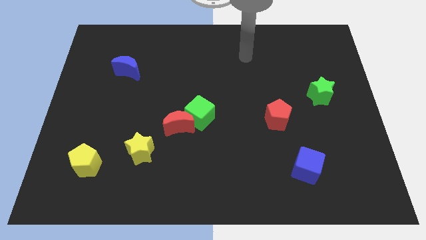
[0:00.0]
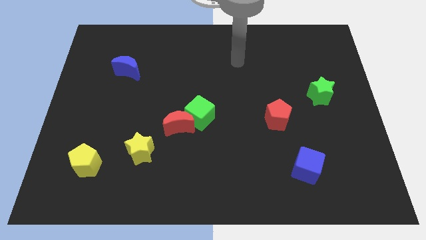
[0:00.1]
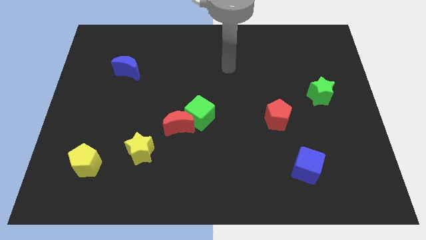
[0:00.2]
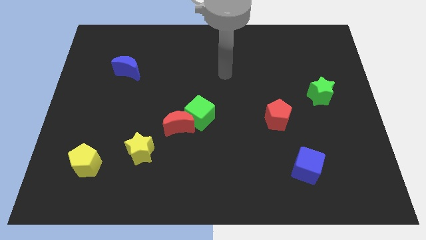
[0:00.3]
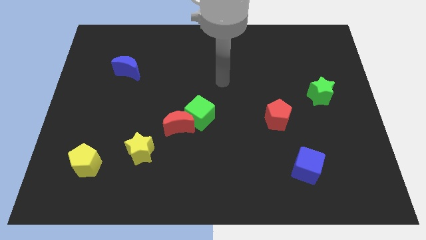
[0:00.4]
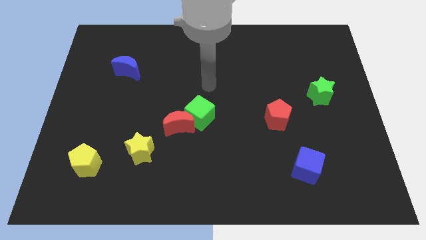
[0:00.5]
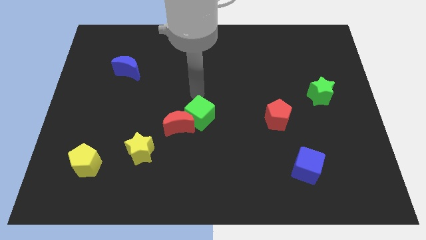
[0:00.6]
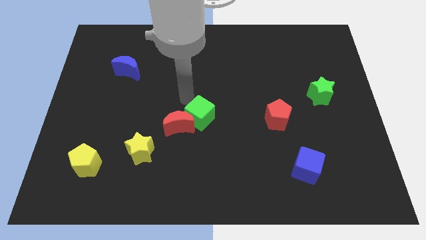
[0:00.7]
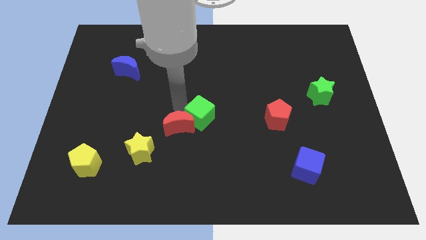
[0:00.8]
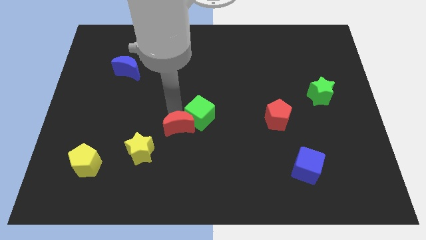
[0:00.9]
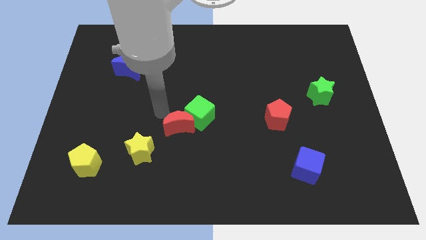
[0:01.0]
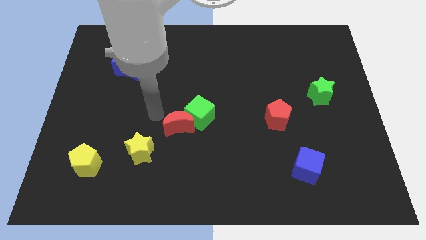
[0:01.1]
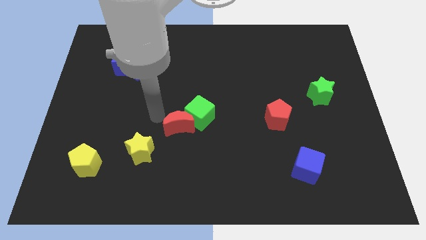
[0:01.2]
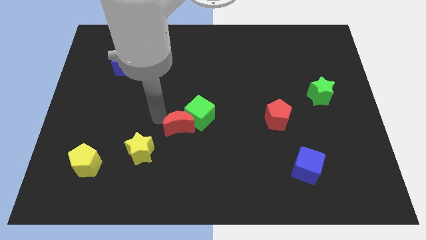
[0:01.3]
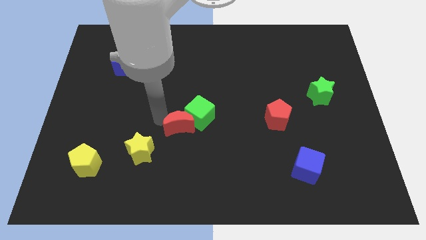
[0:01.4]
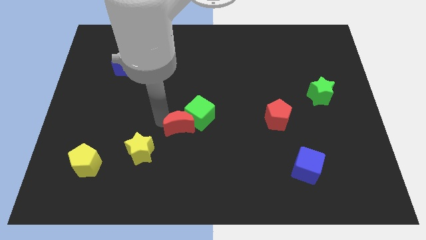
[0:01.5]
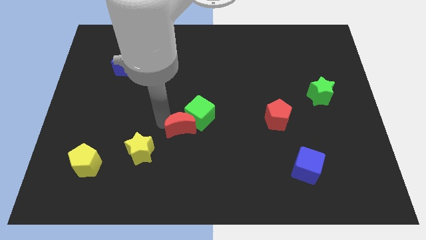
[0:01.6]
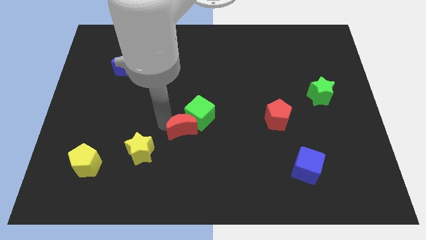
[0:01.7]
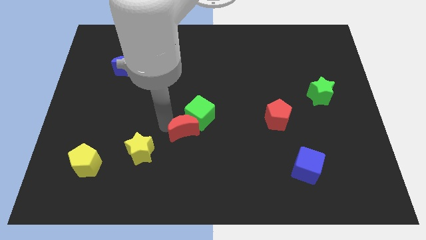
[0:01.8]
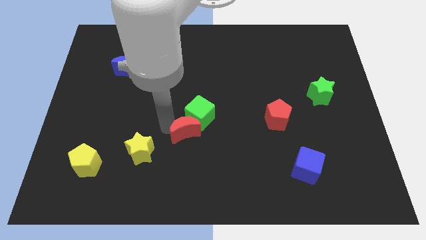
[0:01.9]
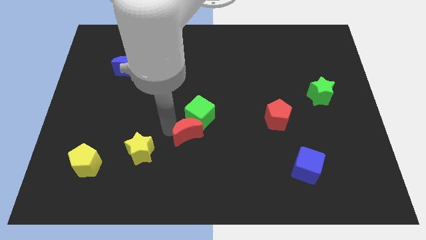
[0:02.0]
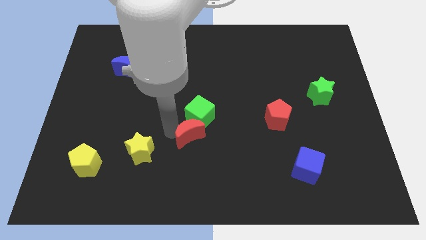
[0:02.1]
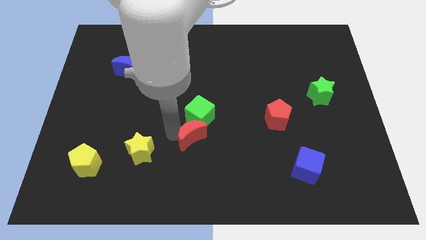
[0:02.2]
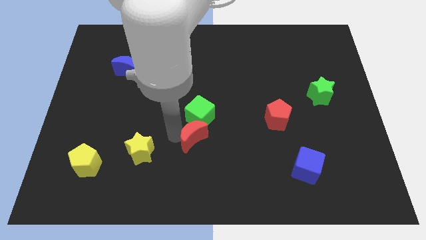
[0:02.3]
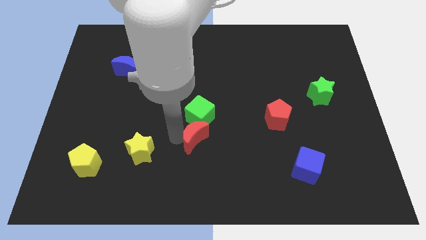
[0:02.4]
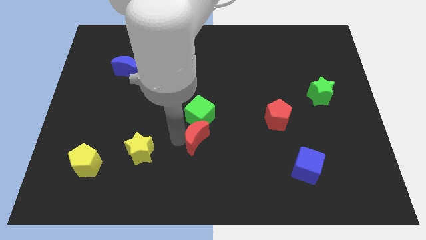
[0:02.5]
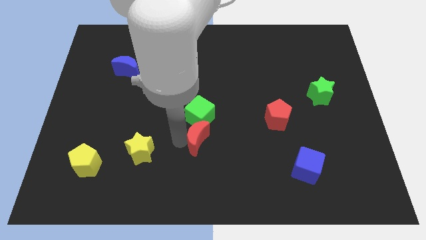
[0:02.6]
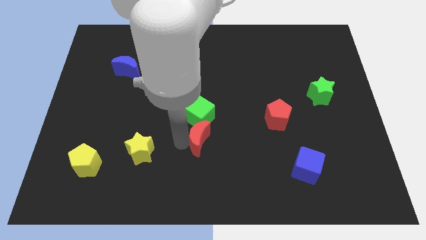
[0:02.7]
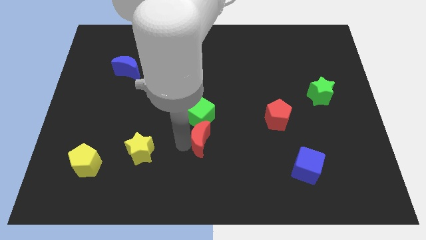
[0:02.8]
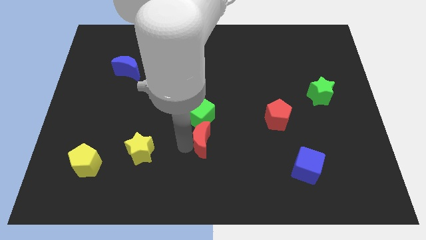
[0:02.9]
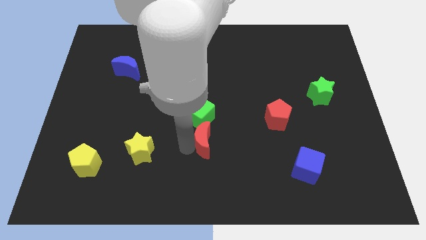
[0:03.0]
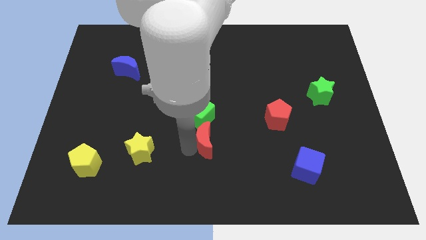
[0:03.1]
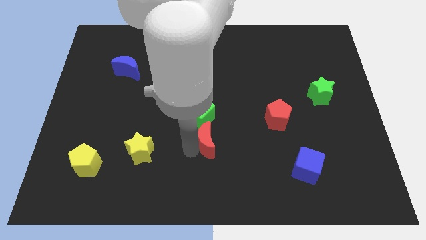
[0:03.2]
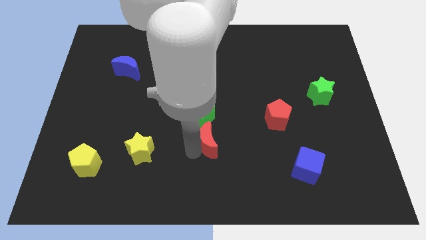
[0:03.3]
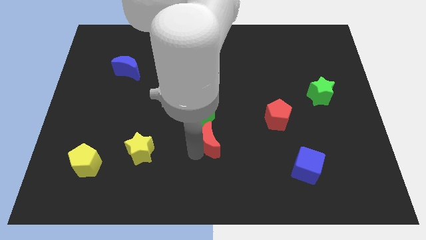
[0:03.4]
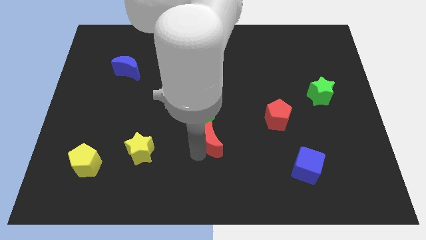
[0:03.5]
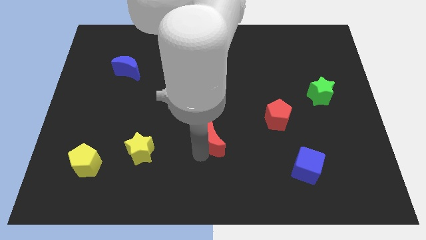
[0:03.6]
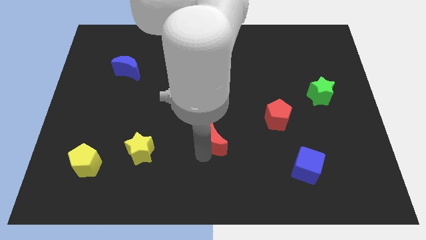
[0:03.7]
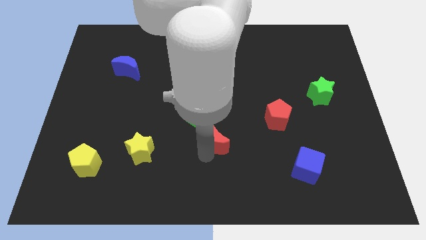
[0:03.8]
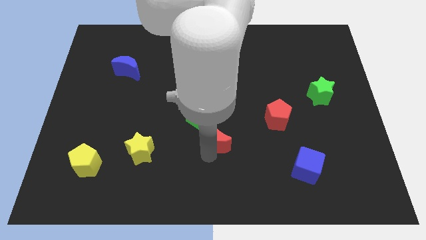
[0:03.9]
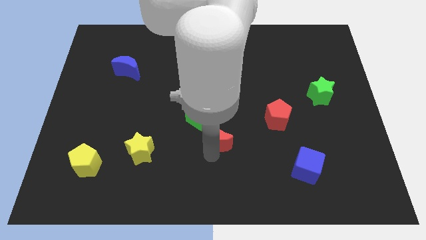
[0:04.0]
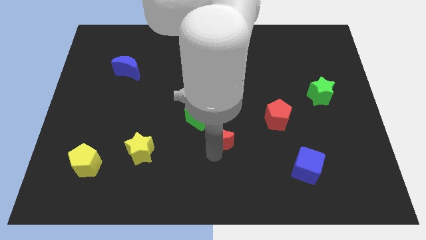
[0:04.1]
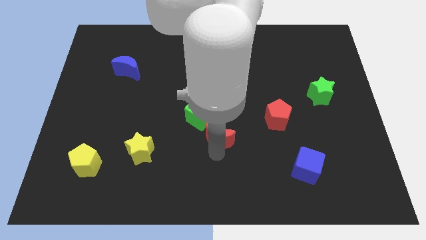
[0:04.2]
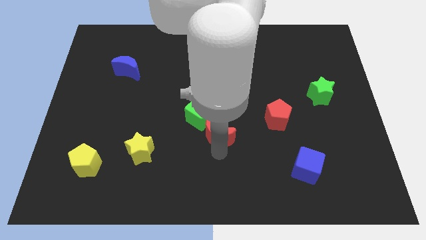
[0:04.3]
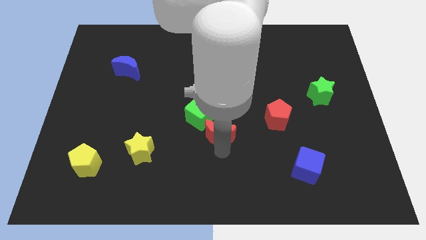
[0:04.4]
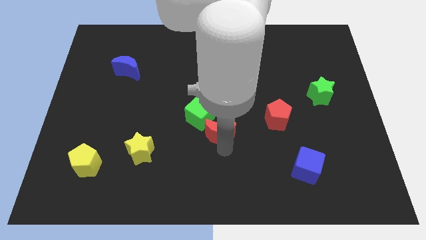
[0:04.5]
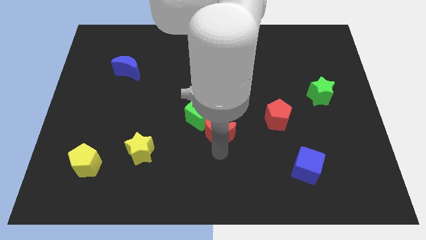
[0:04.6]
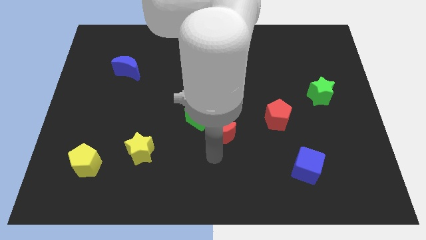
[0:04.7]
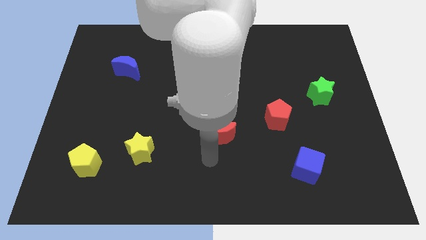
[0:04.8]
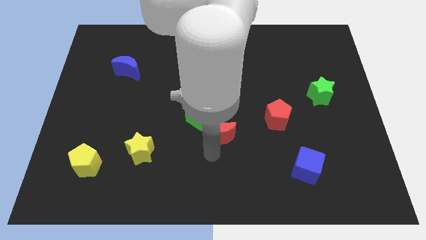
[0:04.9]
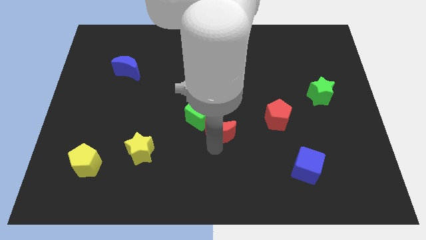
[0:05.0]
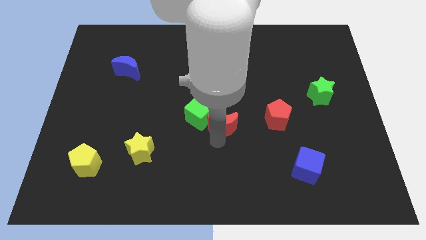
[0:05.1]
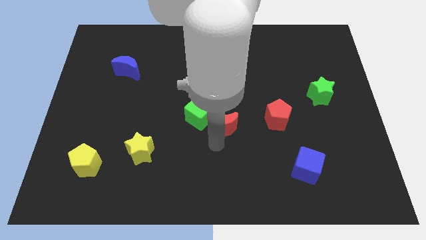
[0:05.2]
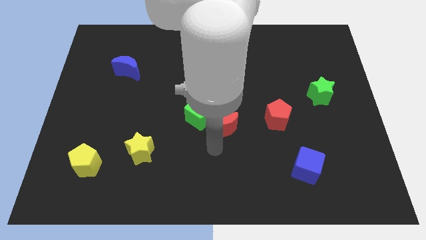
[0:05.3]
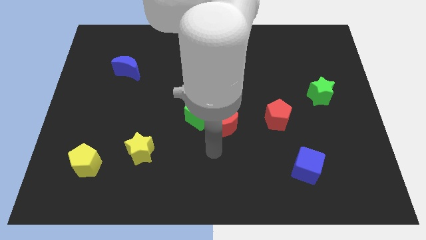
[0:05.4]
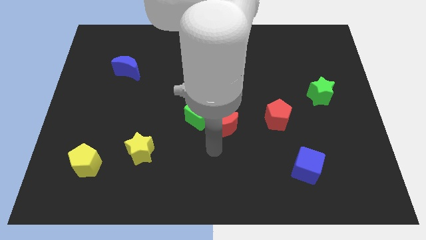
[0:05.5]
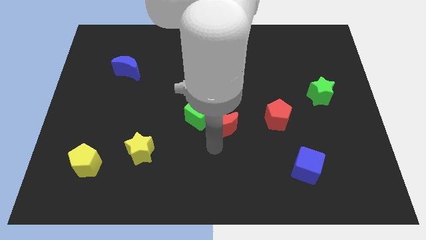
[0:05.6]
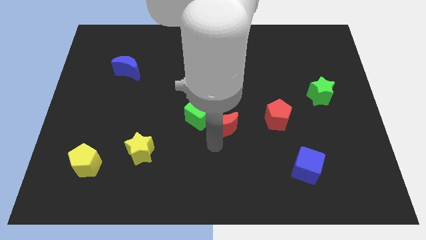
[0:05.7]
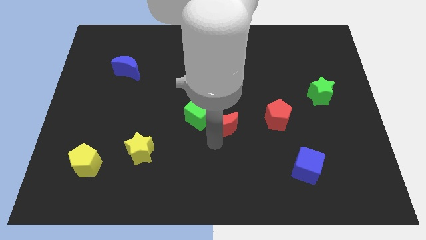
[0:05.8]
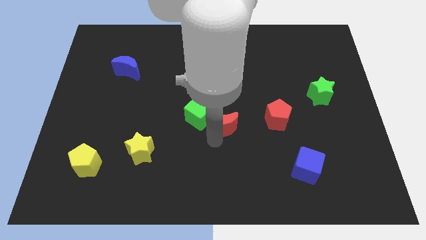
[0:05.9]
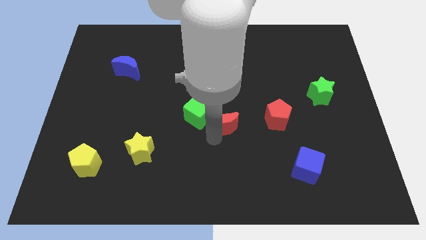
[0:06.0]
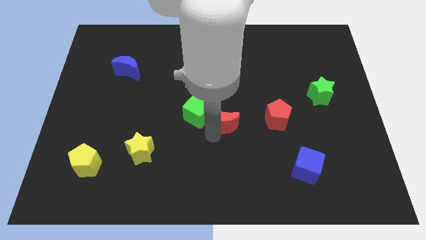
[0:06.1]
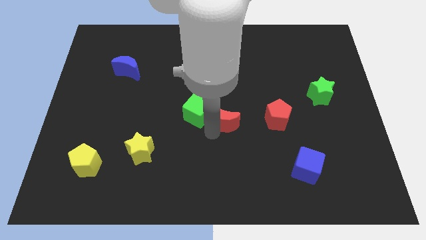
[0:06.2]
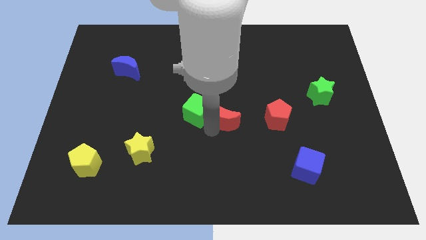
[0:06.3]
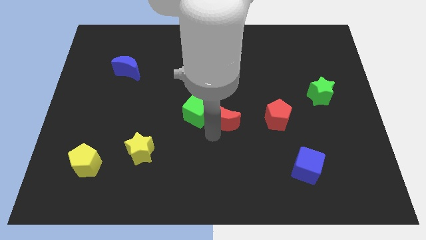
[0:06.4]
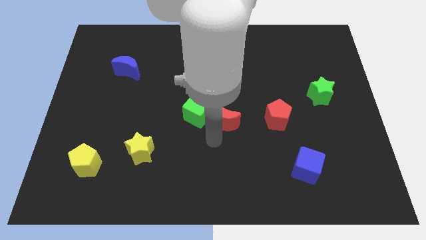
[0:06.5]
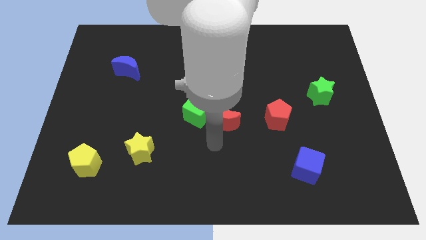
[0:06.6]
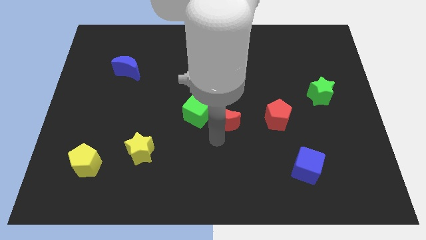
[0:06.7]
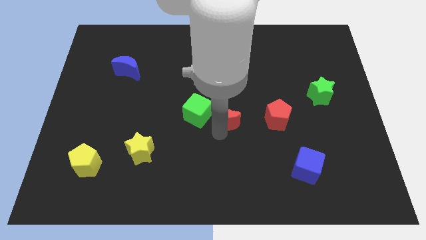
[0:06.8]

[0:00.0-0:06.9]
move the red moon a bit up and right diagonally

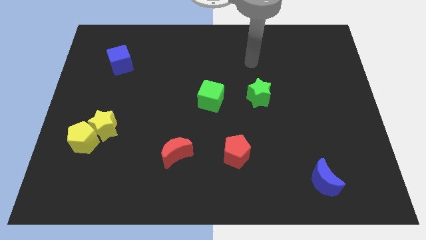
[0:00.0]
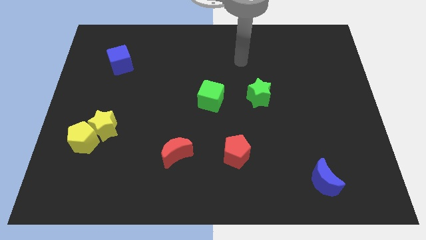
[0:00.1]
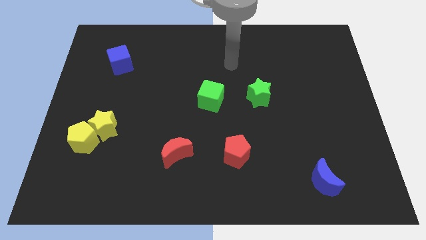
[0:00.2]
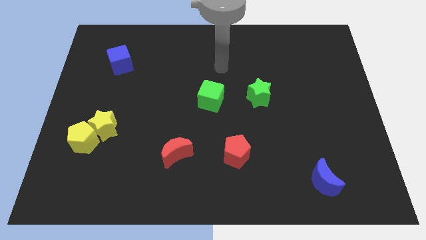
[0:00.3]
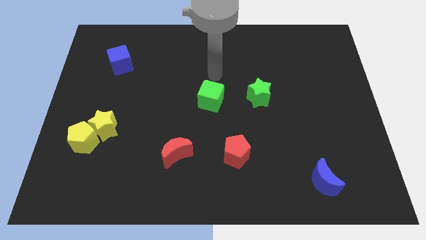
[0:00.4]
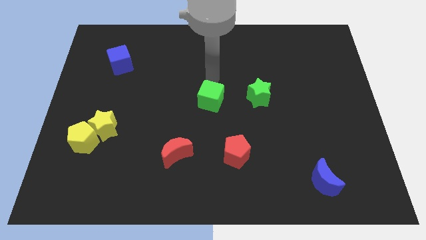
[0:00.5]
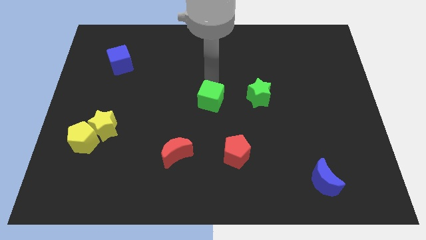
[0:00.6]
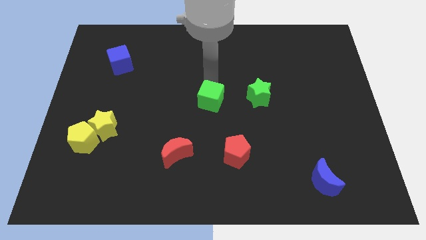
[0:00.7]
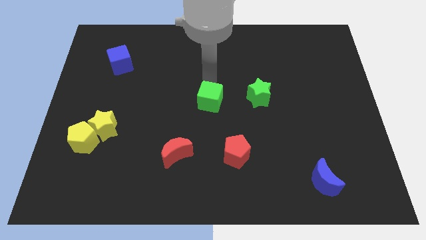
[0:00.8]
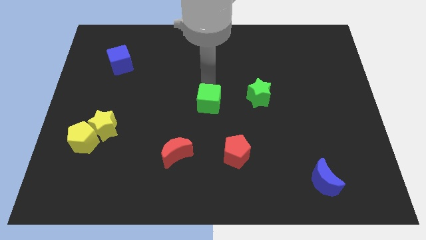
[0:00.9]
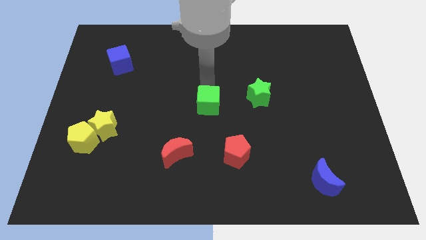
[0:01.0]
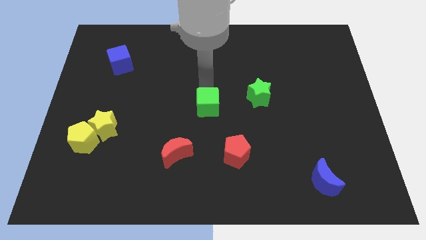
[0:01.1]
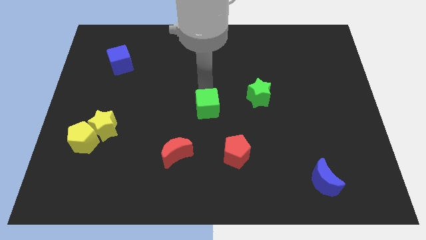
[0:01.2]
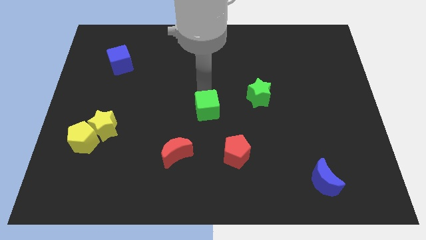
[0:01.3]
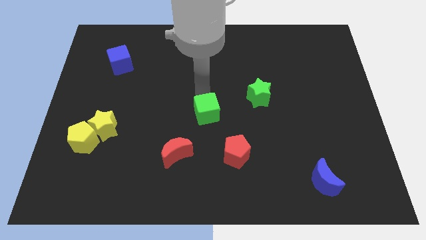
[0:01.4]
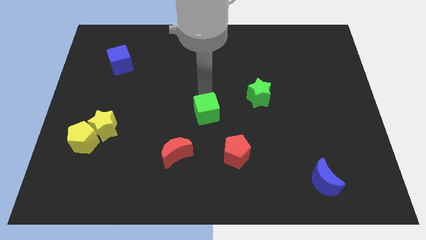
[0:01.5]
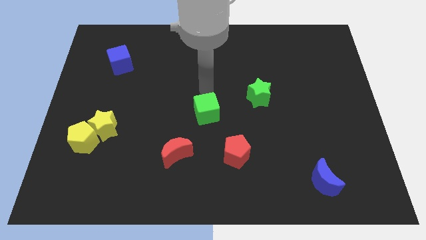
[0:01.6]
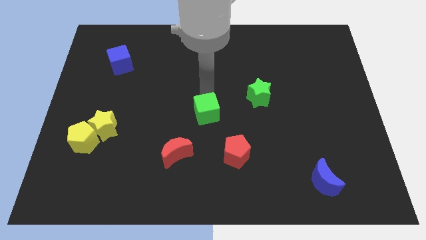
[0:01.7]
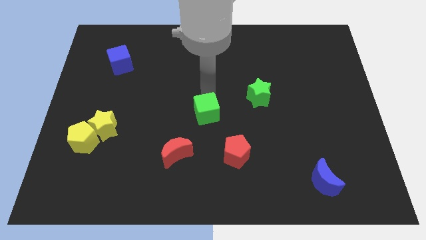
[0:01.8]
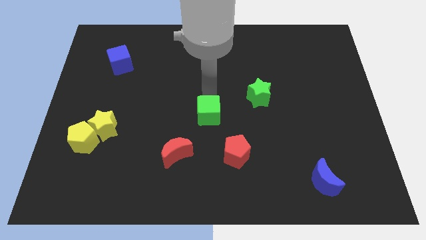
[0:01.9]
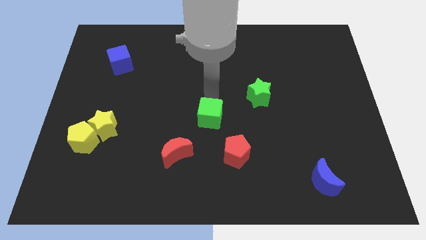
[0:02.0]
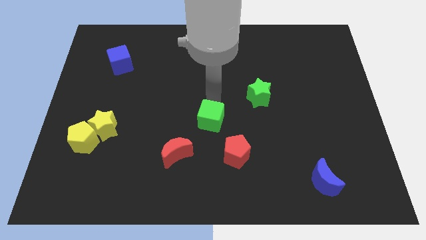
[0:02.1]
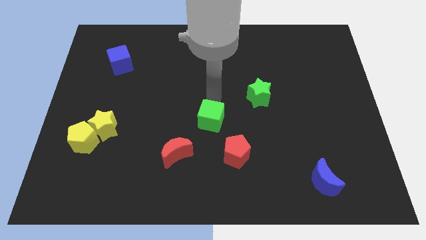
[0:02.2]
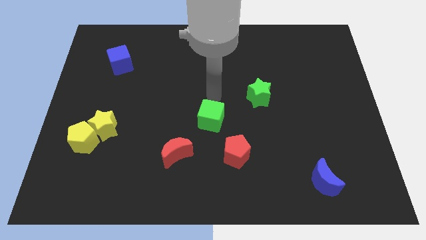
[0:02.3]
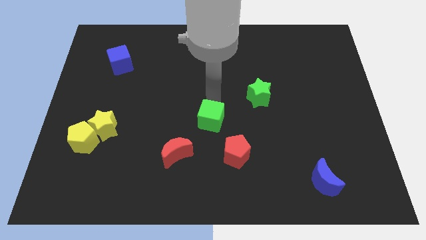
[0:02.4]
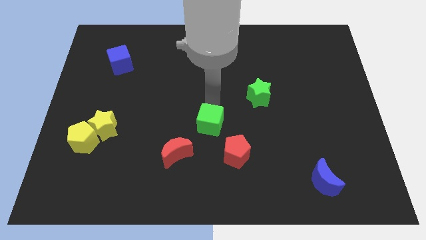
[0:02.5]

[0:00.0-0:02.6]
push the green cube a bit down
